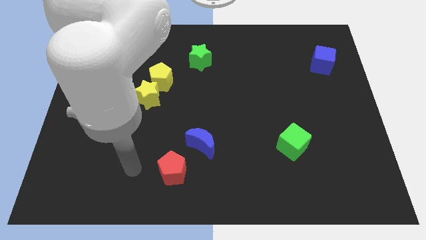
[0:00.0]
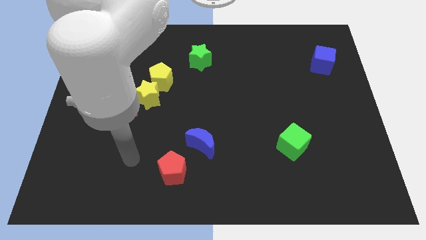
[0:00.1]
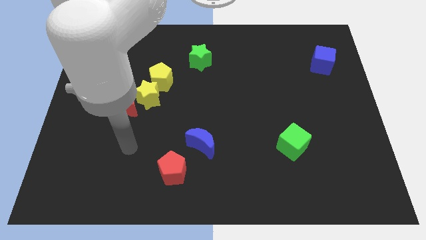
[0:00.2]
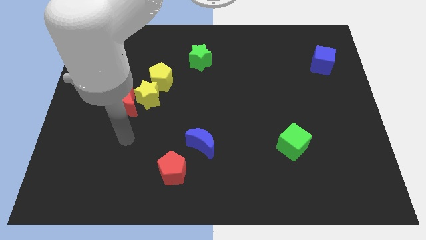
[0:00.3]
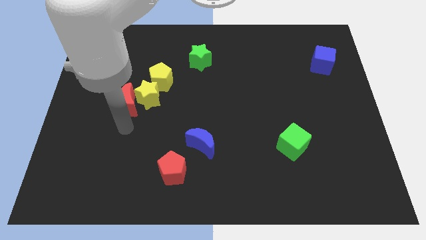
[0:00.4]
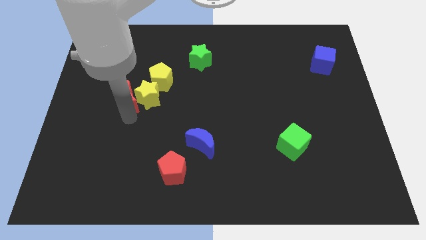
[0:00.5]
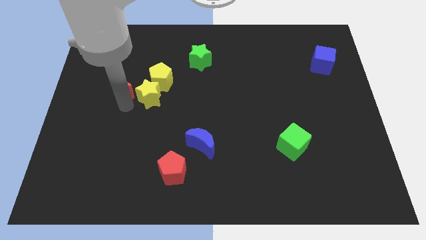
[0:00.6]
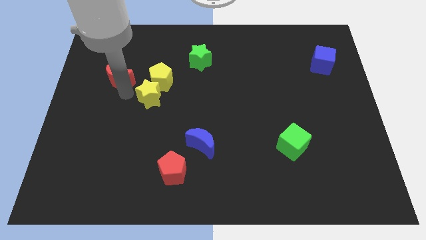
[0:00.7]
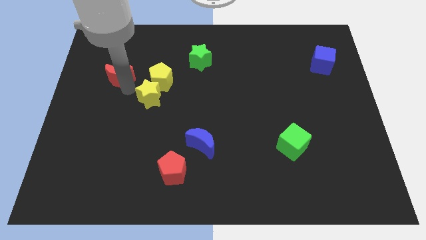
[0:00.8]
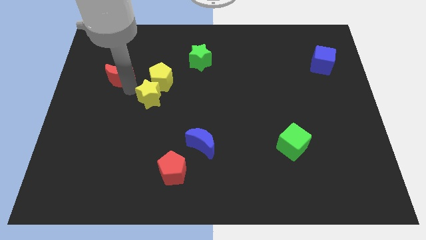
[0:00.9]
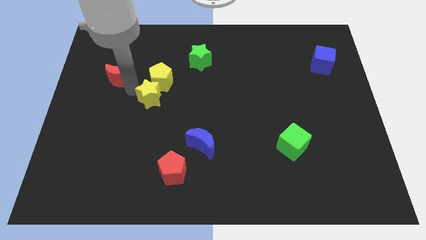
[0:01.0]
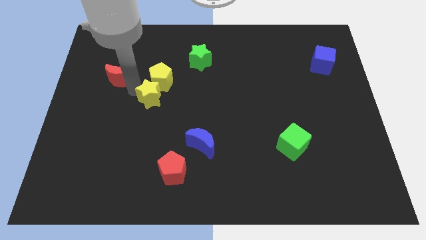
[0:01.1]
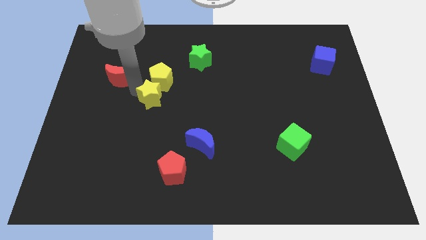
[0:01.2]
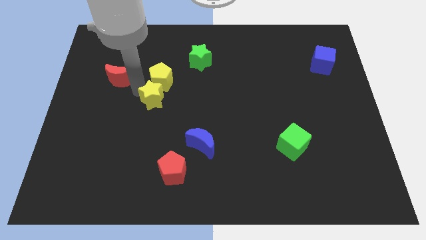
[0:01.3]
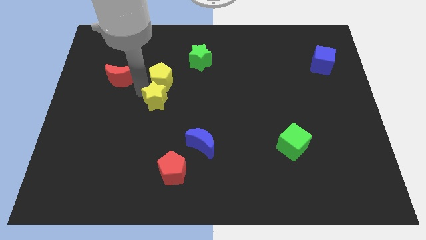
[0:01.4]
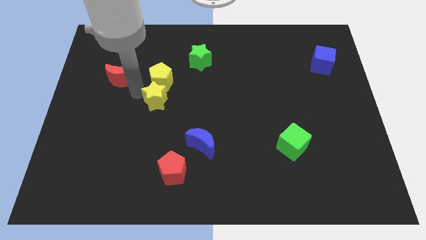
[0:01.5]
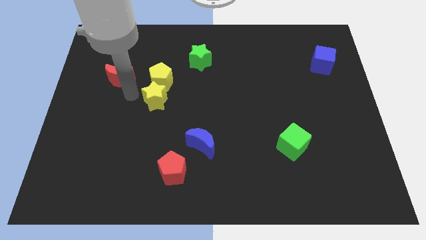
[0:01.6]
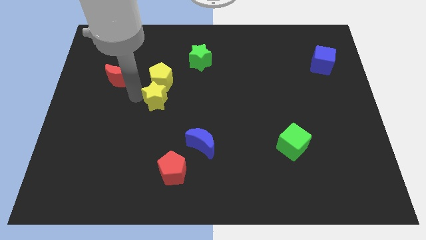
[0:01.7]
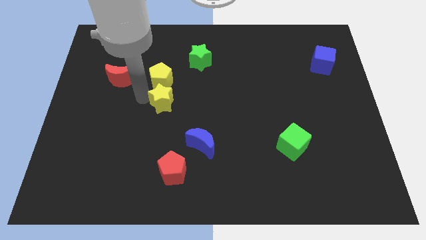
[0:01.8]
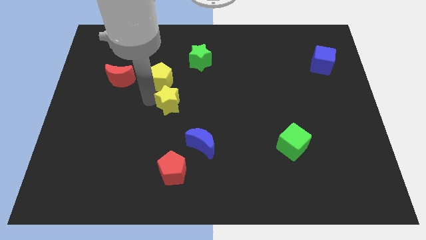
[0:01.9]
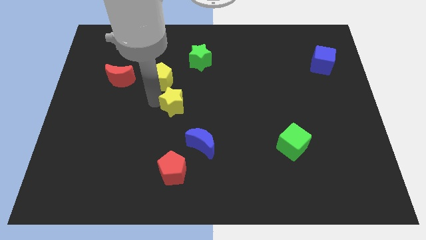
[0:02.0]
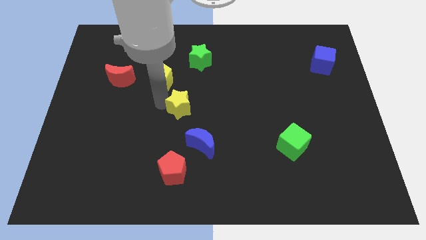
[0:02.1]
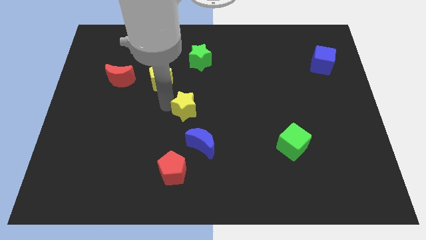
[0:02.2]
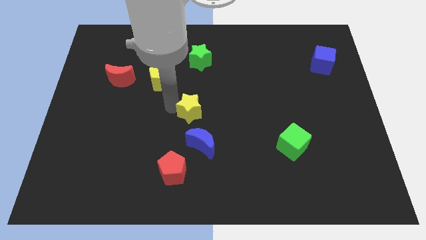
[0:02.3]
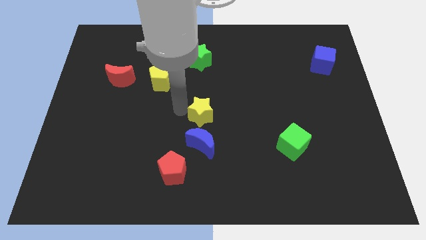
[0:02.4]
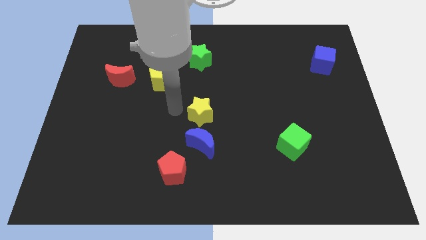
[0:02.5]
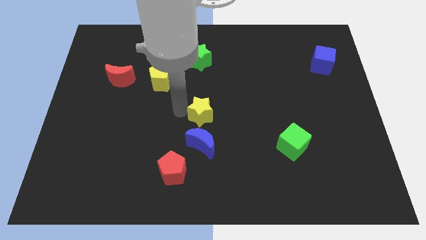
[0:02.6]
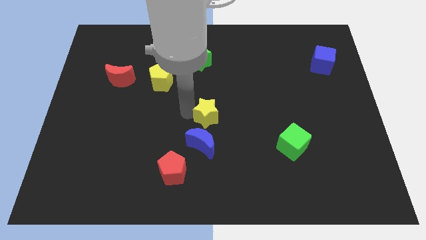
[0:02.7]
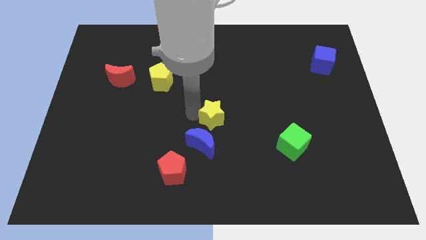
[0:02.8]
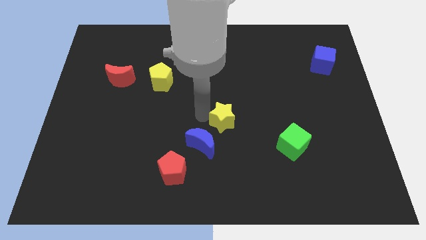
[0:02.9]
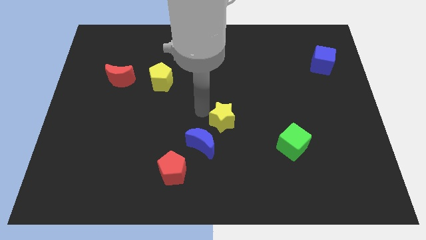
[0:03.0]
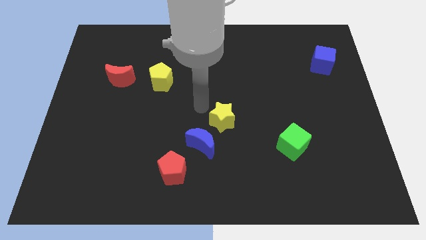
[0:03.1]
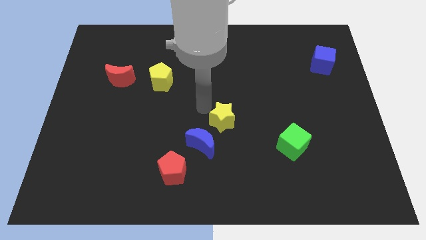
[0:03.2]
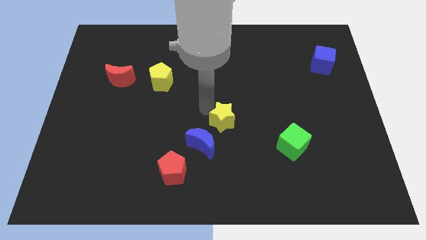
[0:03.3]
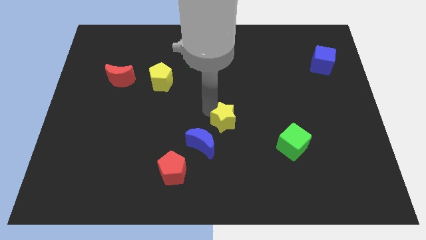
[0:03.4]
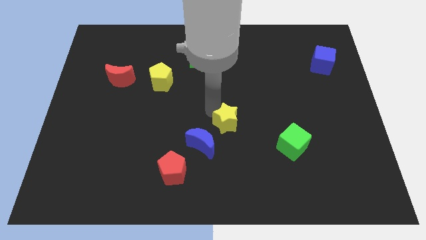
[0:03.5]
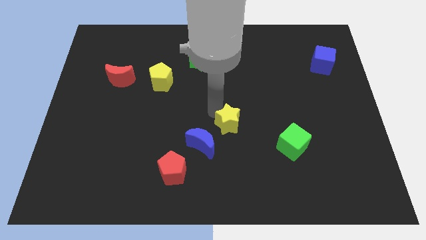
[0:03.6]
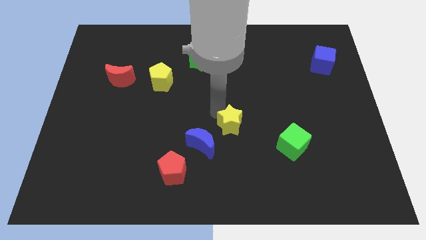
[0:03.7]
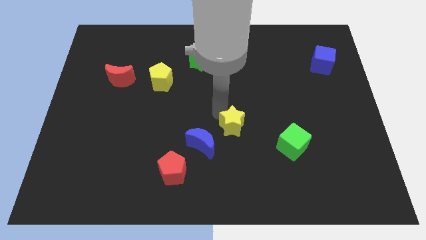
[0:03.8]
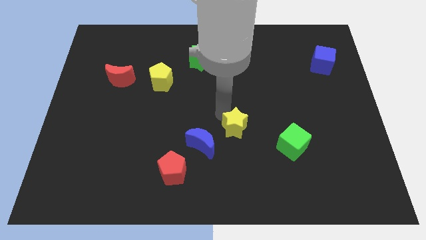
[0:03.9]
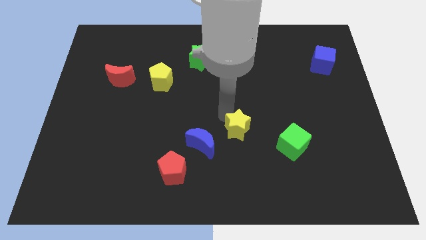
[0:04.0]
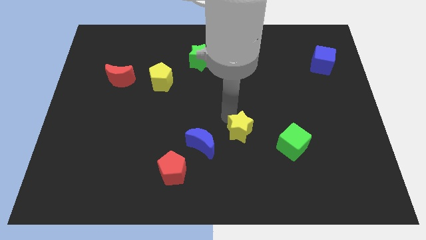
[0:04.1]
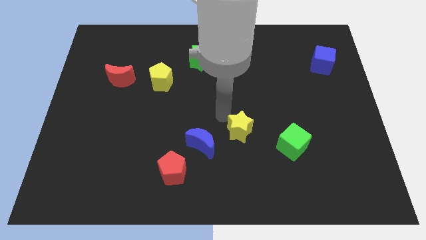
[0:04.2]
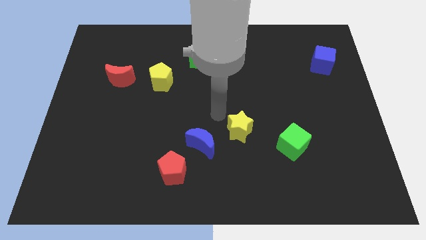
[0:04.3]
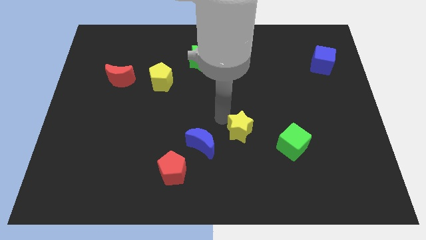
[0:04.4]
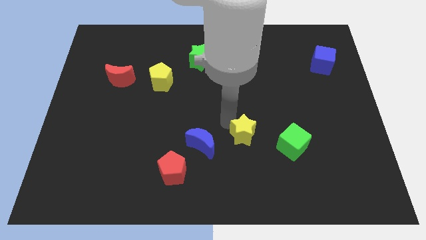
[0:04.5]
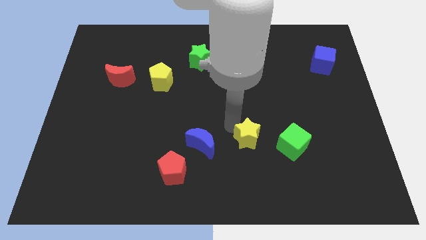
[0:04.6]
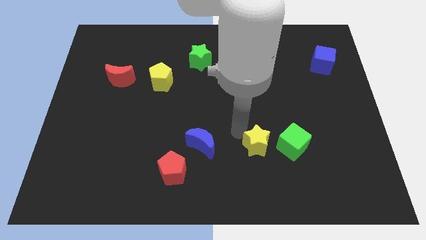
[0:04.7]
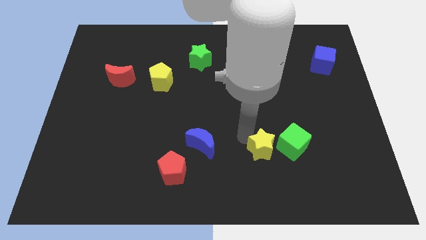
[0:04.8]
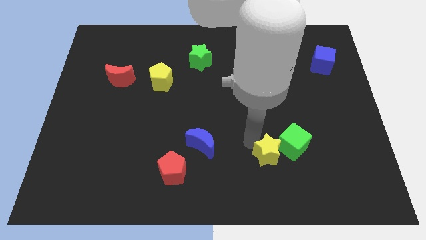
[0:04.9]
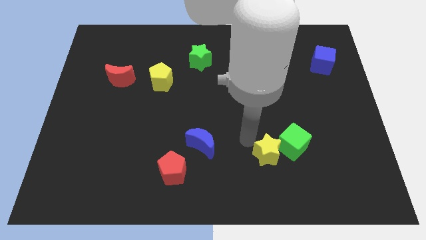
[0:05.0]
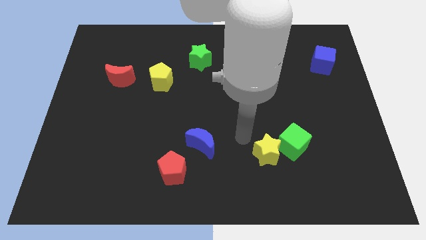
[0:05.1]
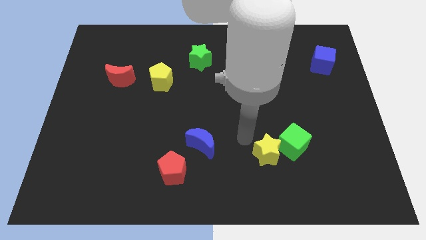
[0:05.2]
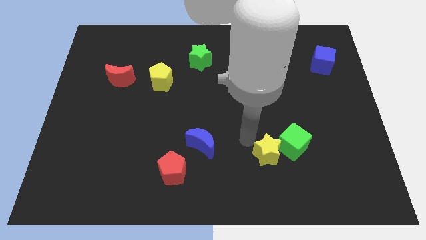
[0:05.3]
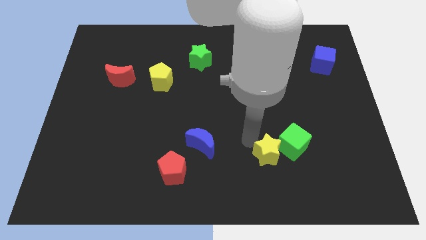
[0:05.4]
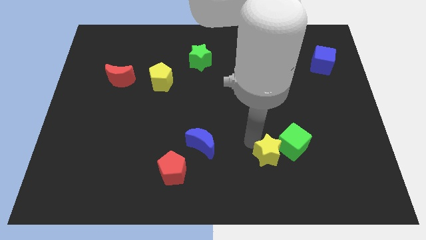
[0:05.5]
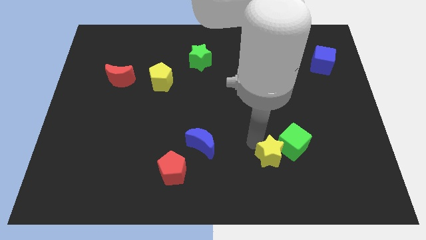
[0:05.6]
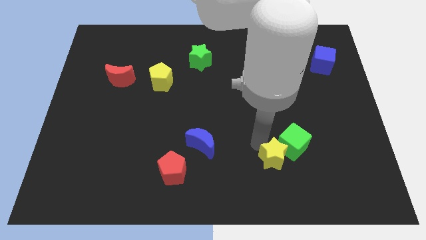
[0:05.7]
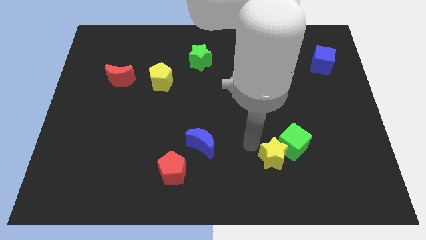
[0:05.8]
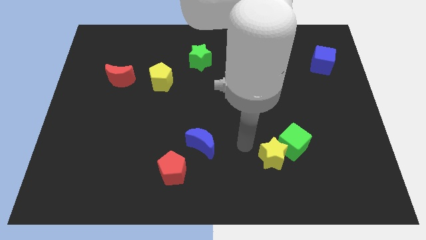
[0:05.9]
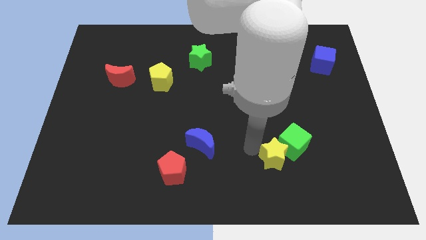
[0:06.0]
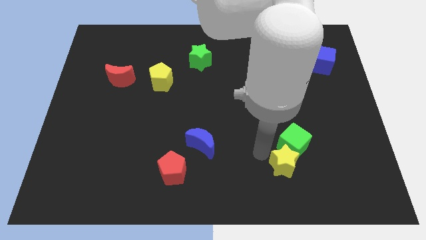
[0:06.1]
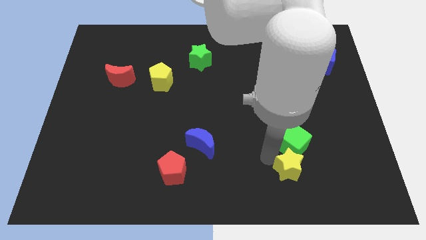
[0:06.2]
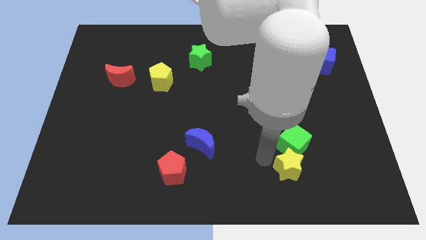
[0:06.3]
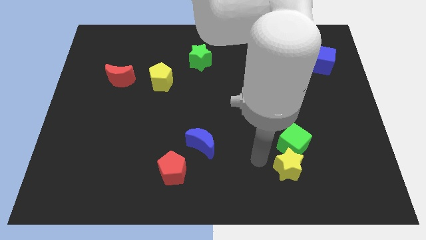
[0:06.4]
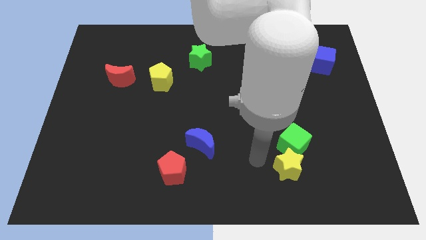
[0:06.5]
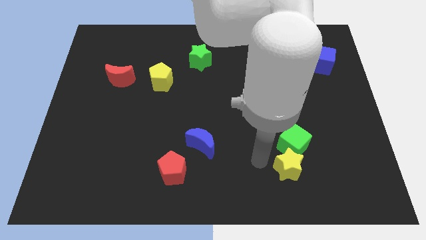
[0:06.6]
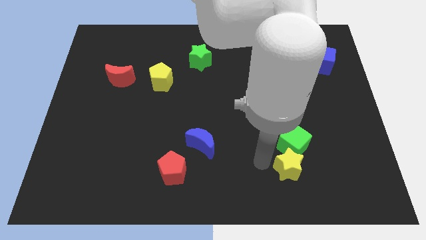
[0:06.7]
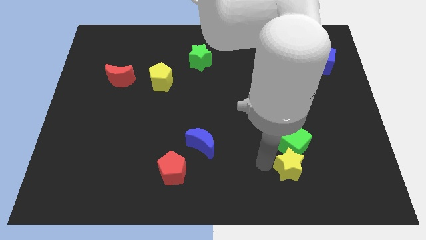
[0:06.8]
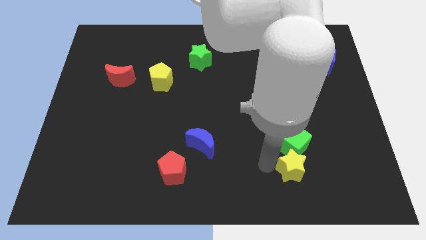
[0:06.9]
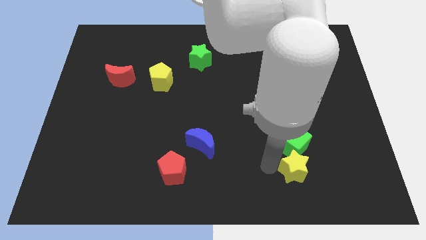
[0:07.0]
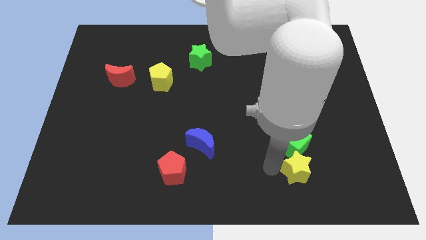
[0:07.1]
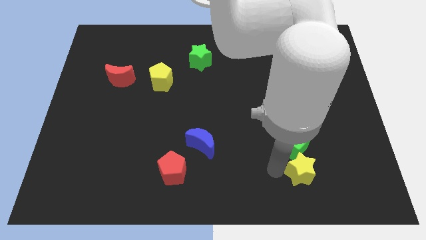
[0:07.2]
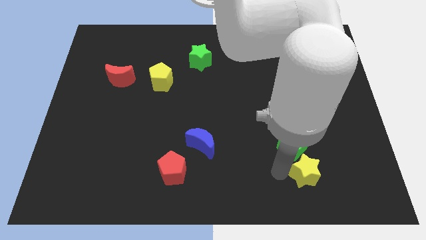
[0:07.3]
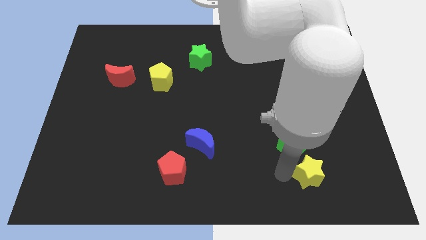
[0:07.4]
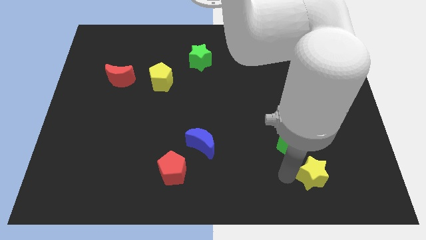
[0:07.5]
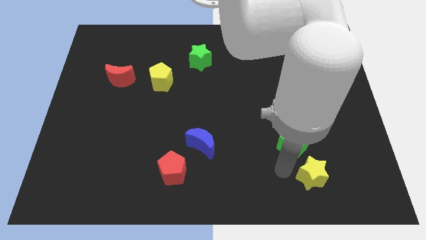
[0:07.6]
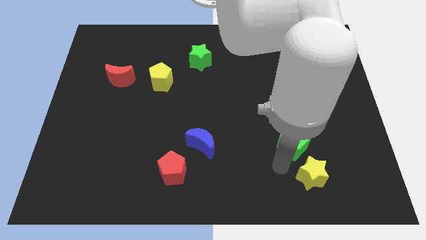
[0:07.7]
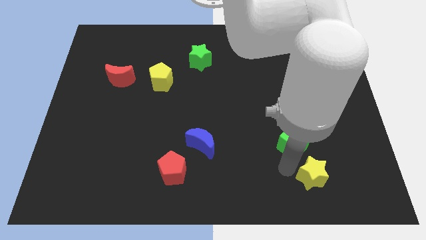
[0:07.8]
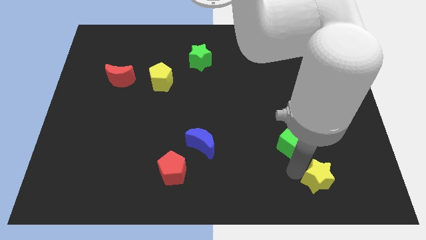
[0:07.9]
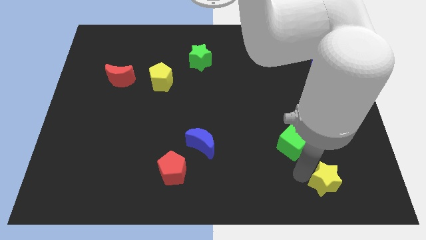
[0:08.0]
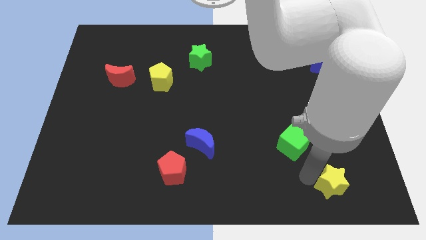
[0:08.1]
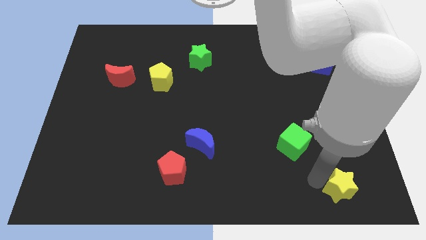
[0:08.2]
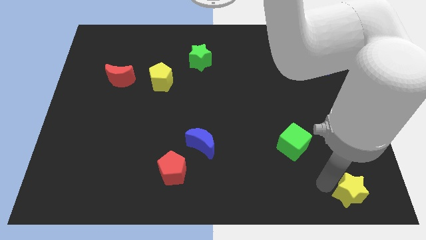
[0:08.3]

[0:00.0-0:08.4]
push the yellow star to the bottom right of the board
